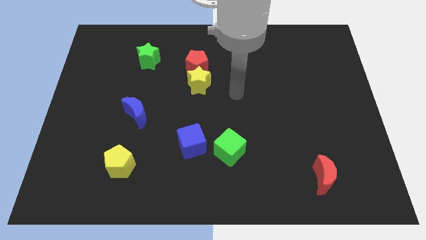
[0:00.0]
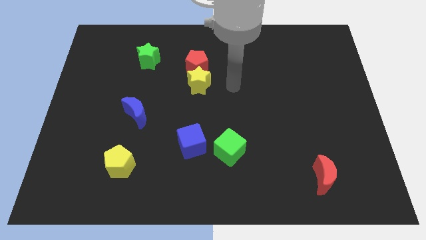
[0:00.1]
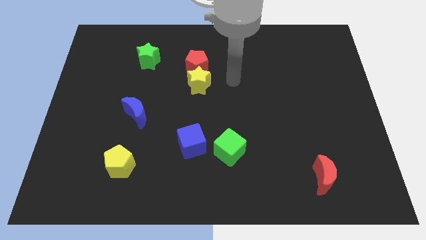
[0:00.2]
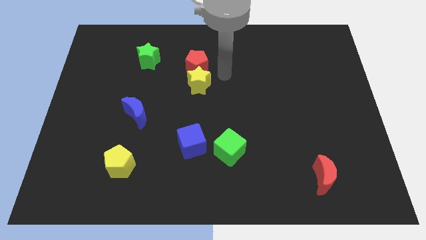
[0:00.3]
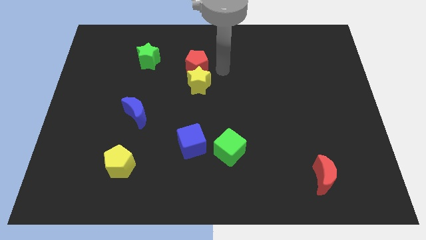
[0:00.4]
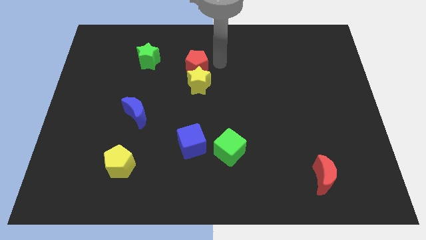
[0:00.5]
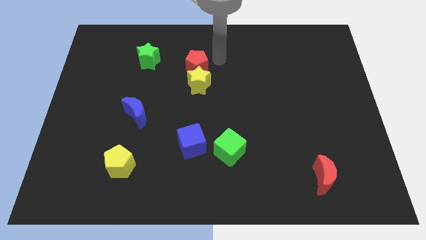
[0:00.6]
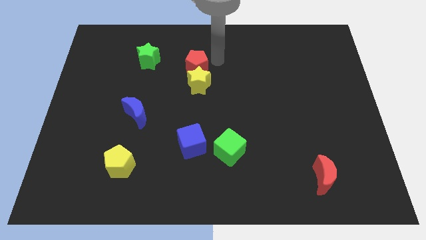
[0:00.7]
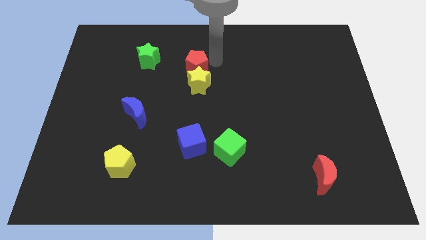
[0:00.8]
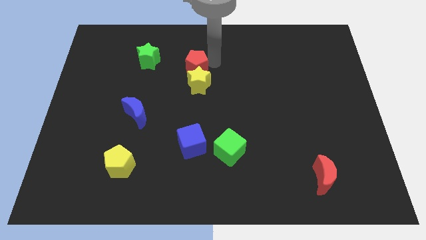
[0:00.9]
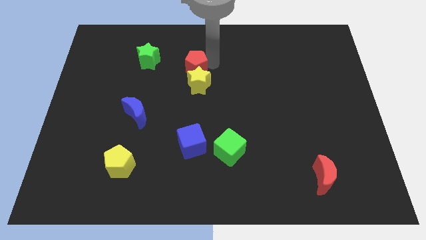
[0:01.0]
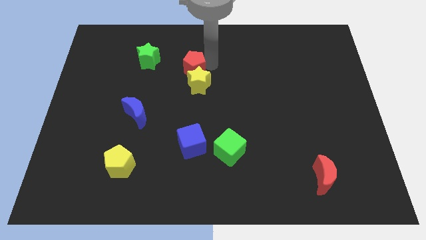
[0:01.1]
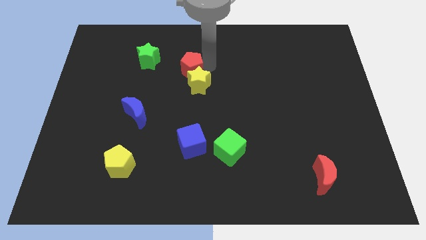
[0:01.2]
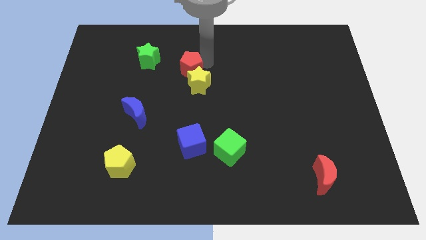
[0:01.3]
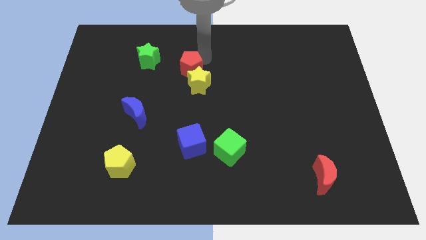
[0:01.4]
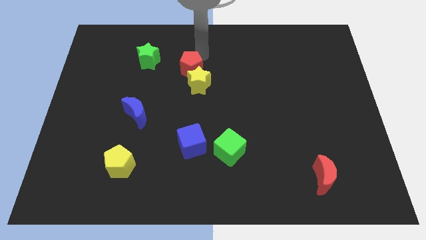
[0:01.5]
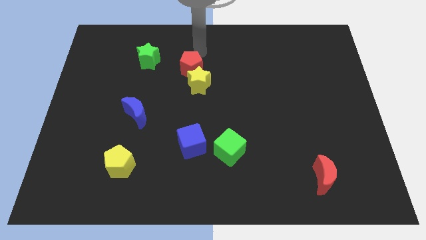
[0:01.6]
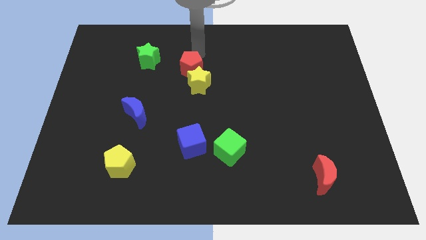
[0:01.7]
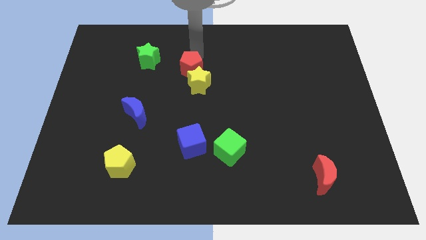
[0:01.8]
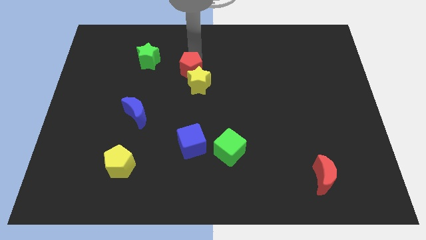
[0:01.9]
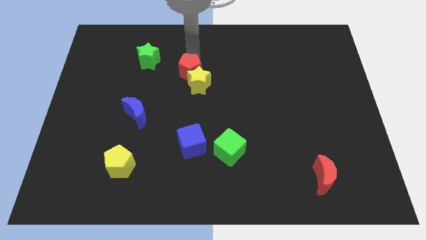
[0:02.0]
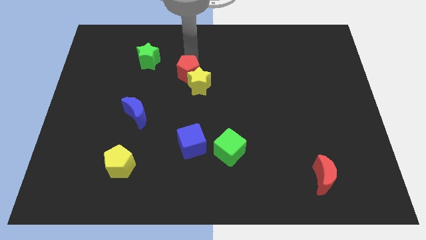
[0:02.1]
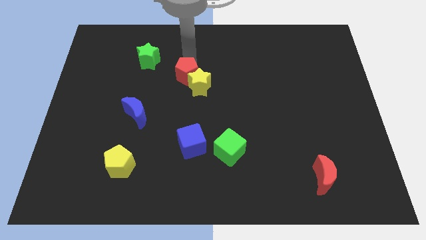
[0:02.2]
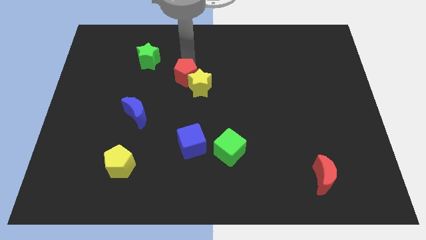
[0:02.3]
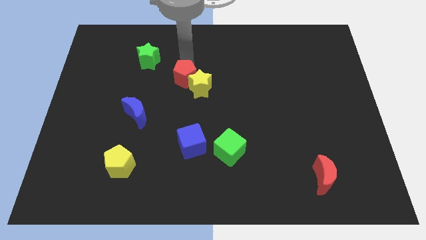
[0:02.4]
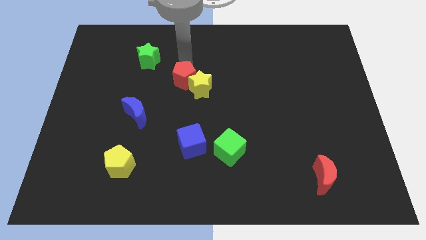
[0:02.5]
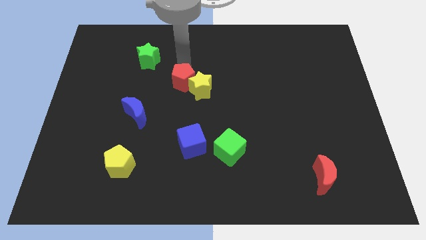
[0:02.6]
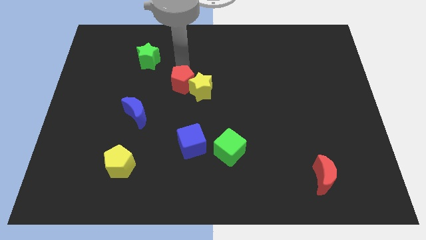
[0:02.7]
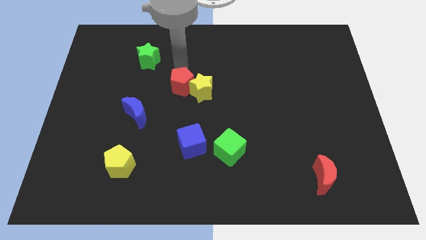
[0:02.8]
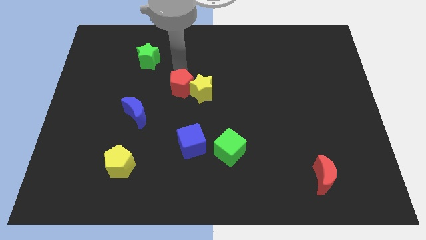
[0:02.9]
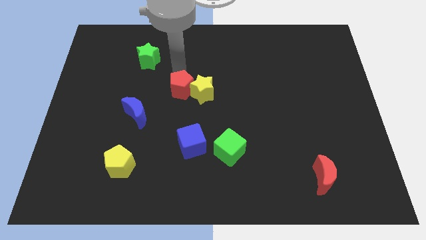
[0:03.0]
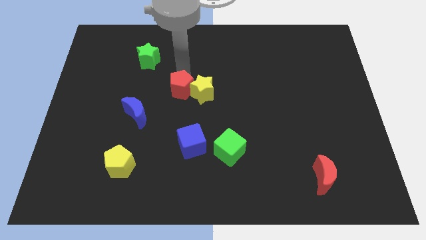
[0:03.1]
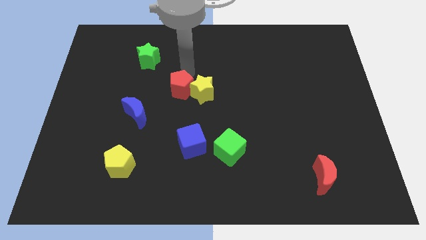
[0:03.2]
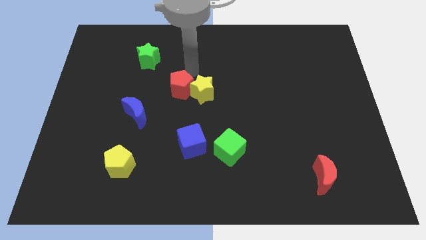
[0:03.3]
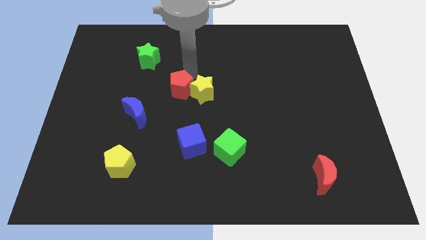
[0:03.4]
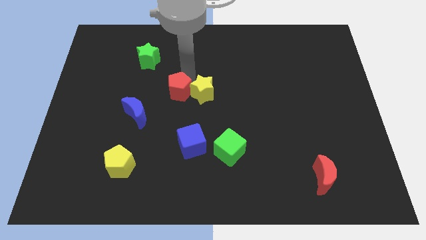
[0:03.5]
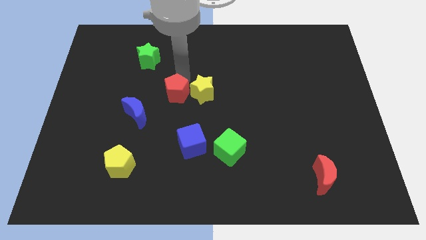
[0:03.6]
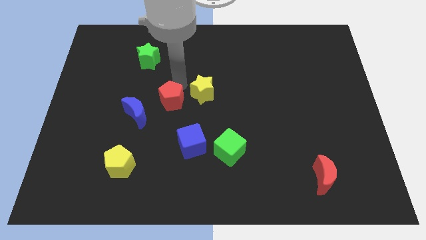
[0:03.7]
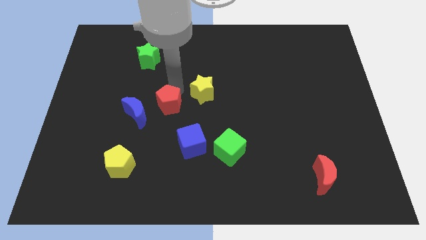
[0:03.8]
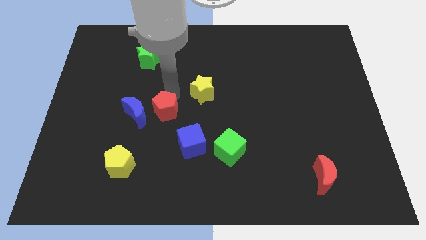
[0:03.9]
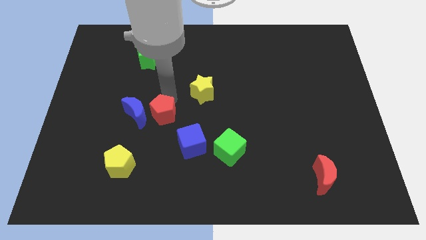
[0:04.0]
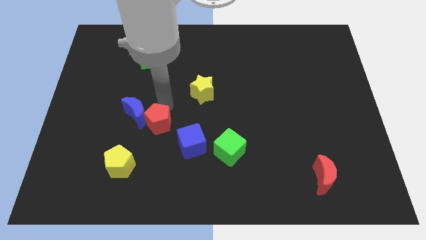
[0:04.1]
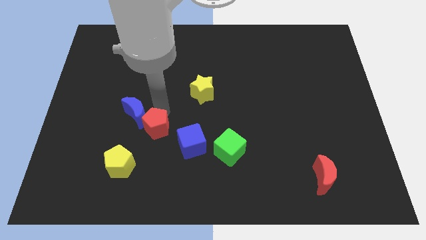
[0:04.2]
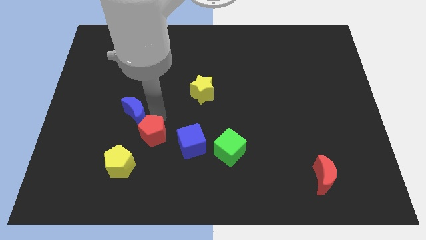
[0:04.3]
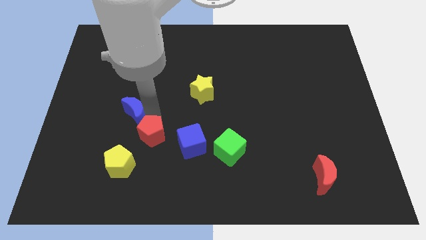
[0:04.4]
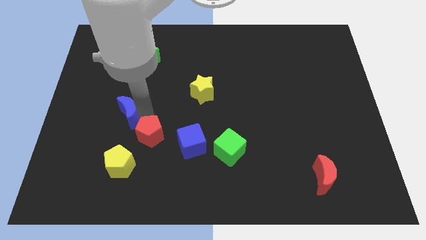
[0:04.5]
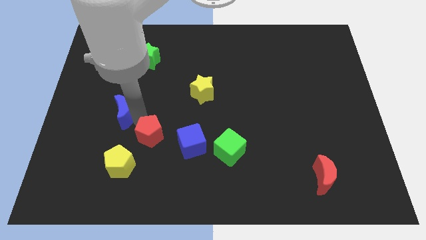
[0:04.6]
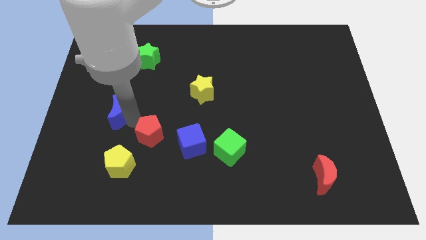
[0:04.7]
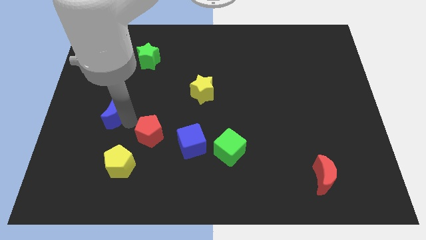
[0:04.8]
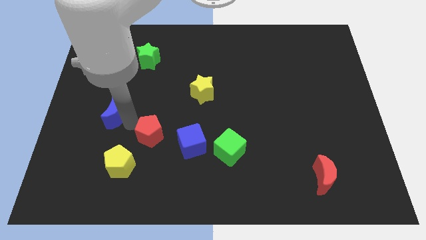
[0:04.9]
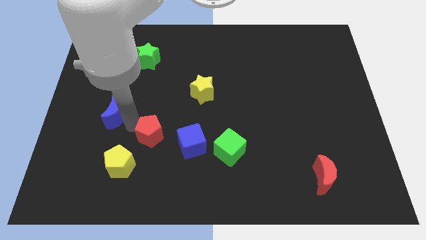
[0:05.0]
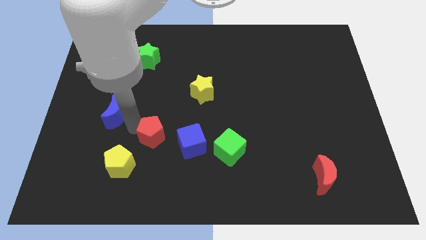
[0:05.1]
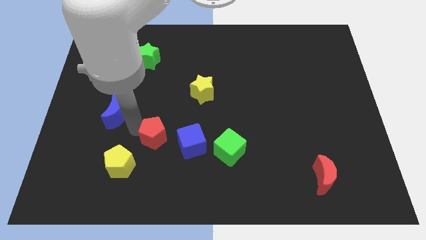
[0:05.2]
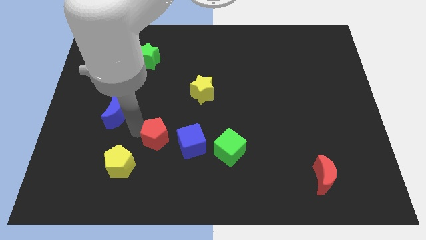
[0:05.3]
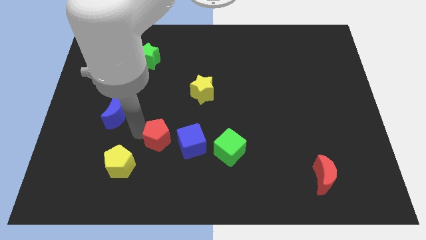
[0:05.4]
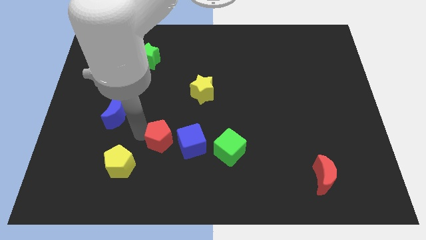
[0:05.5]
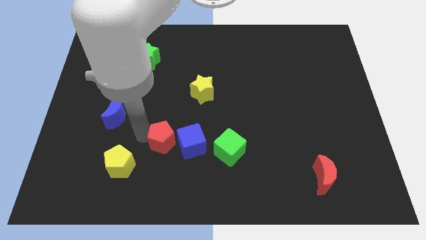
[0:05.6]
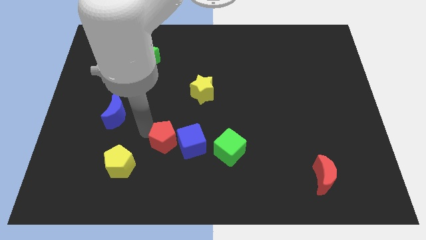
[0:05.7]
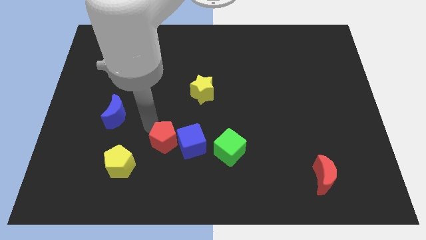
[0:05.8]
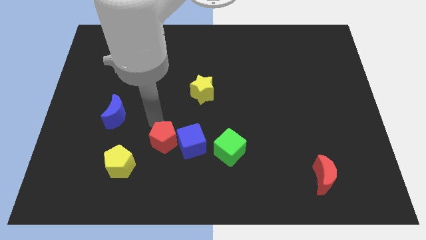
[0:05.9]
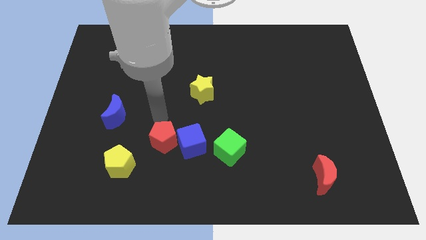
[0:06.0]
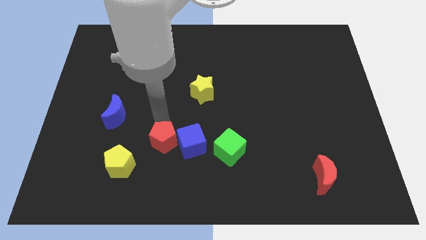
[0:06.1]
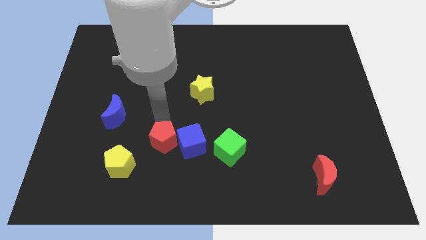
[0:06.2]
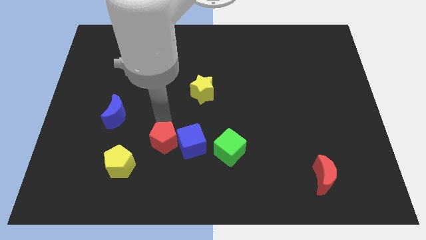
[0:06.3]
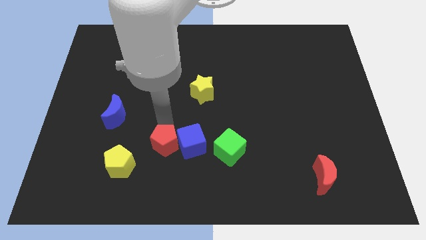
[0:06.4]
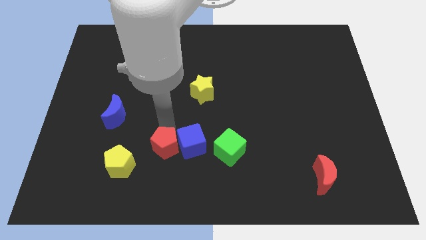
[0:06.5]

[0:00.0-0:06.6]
slide the red pentagon to the right side of the yellow pentagon

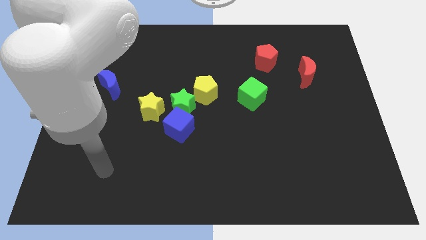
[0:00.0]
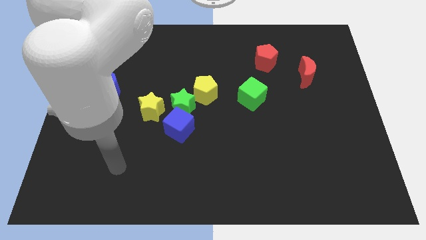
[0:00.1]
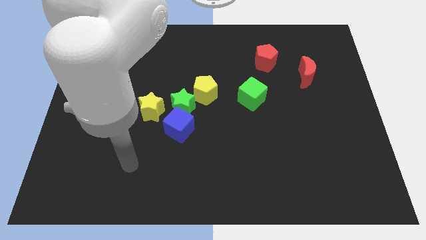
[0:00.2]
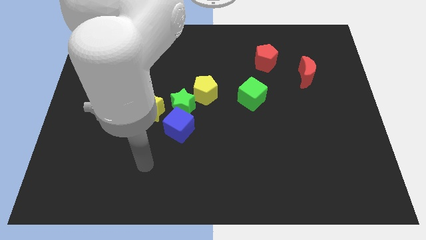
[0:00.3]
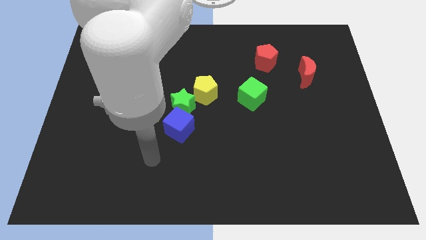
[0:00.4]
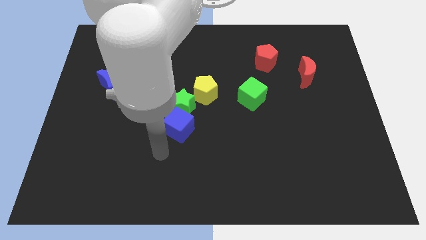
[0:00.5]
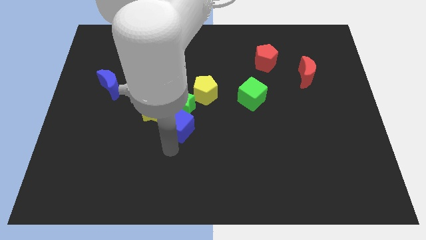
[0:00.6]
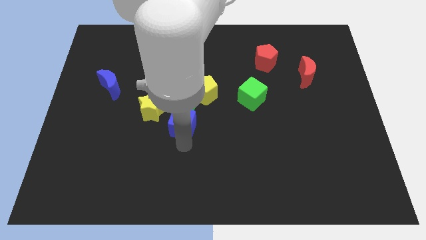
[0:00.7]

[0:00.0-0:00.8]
push the yellow pentagon to the top of the blue cube
